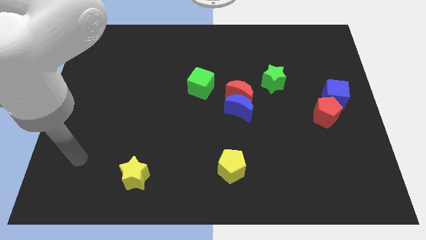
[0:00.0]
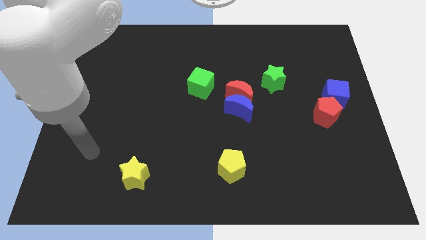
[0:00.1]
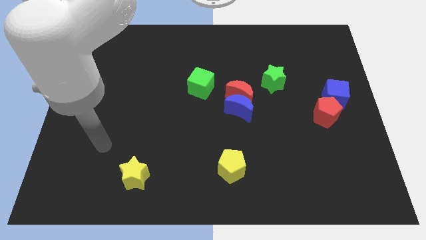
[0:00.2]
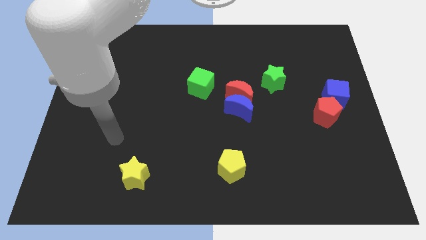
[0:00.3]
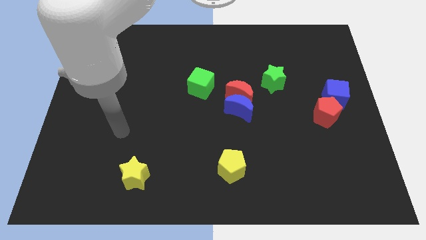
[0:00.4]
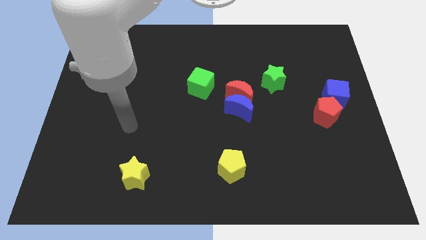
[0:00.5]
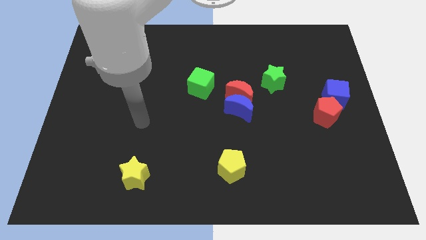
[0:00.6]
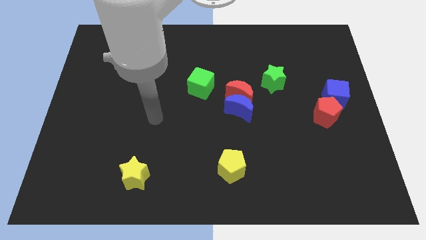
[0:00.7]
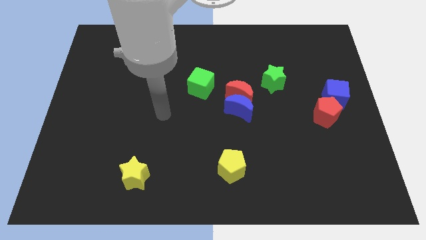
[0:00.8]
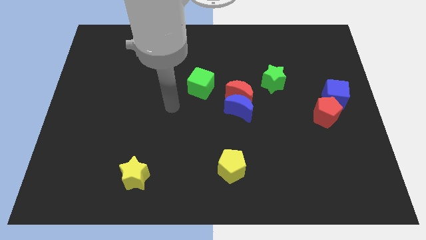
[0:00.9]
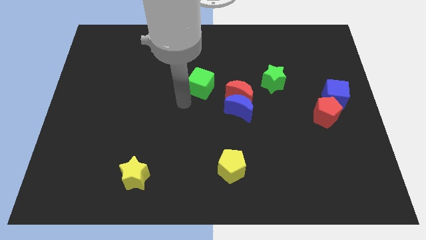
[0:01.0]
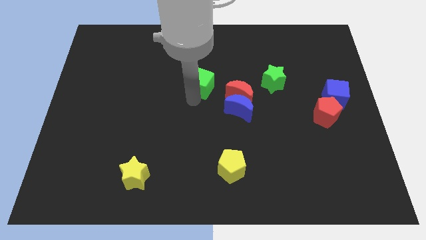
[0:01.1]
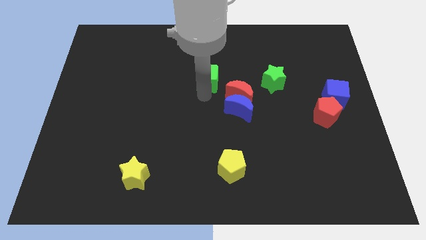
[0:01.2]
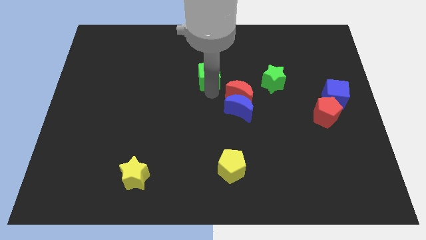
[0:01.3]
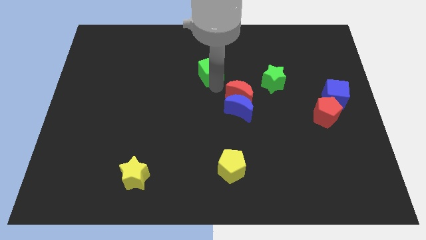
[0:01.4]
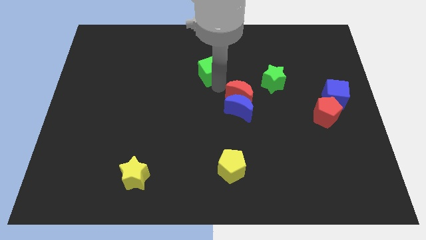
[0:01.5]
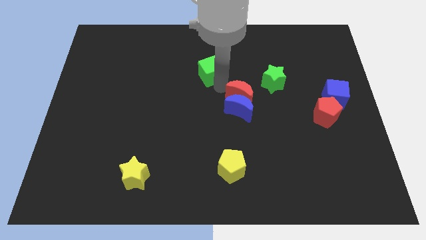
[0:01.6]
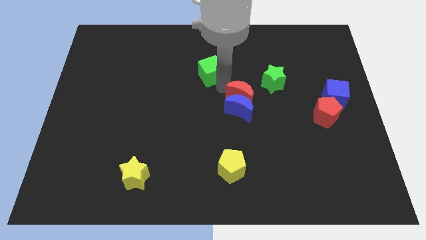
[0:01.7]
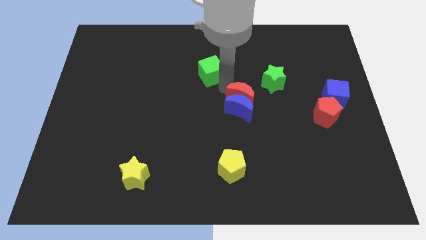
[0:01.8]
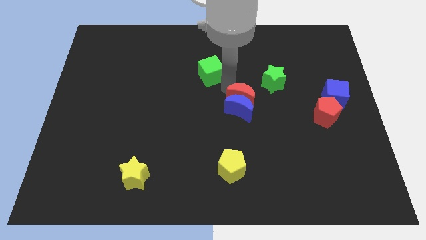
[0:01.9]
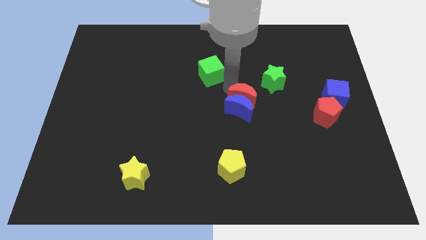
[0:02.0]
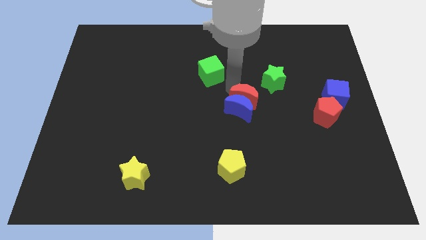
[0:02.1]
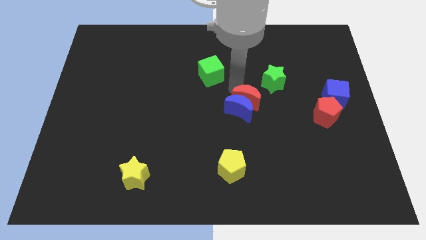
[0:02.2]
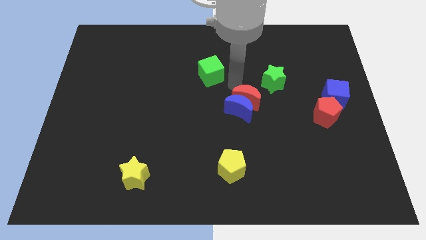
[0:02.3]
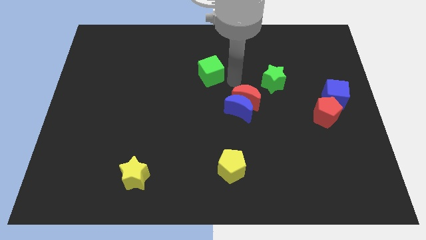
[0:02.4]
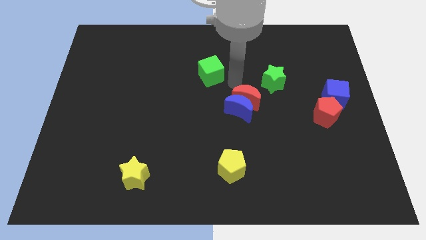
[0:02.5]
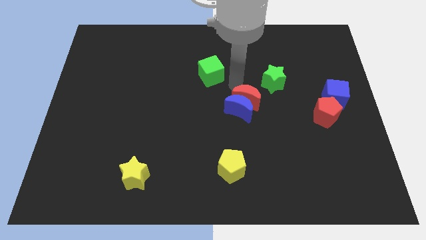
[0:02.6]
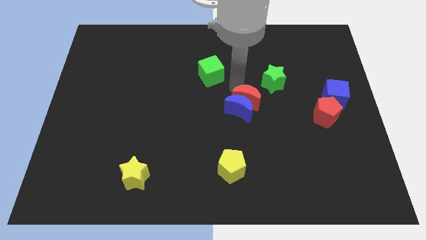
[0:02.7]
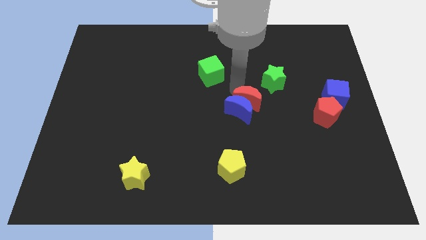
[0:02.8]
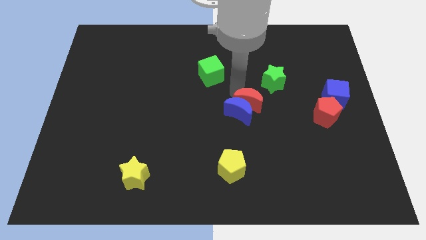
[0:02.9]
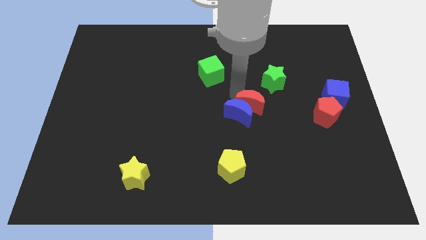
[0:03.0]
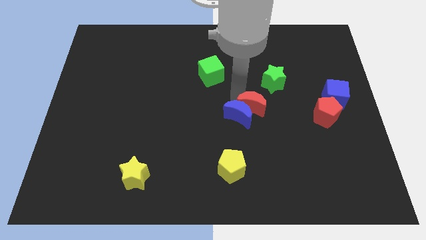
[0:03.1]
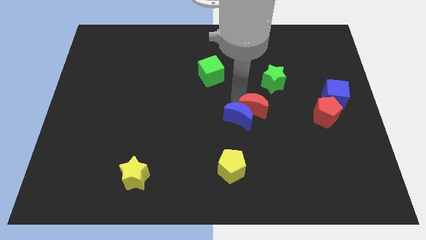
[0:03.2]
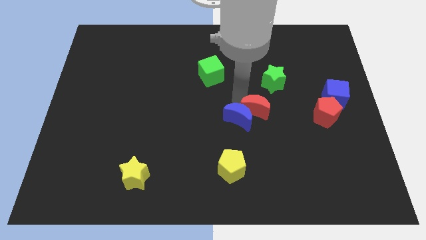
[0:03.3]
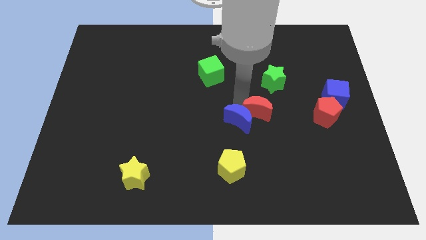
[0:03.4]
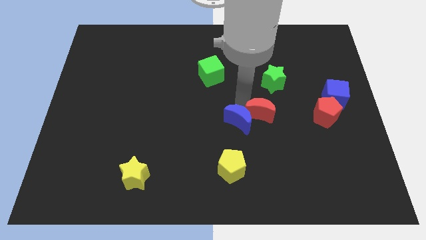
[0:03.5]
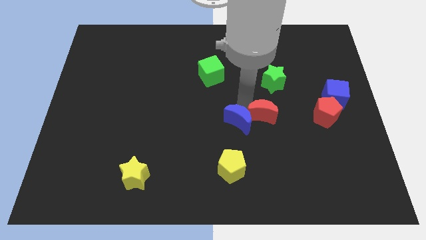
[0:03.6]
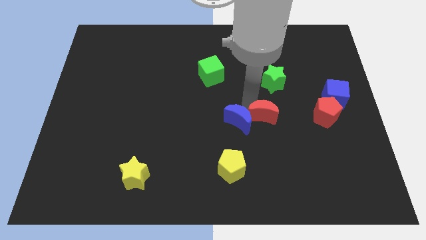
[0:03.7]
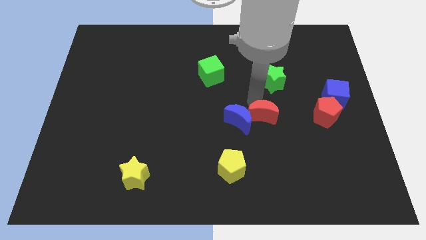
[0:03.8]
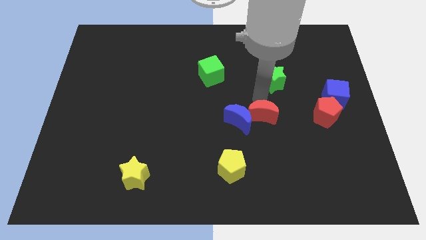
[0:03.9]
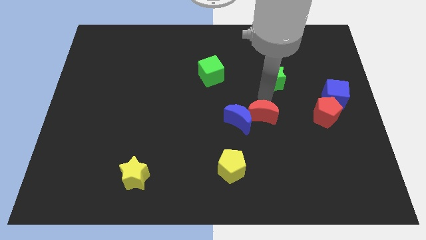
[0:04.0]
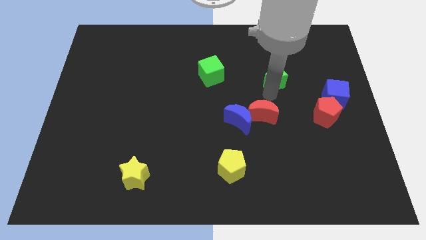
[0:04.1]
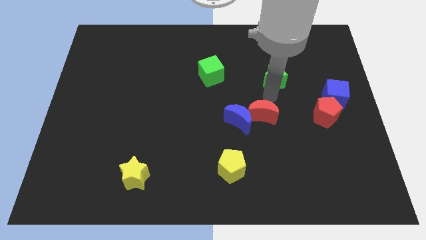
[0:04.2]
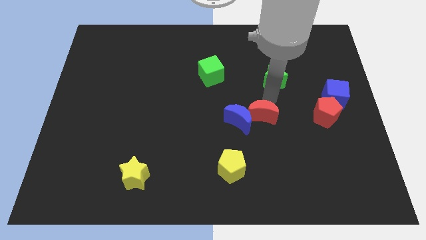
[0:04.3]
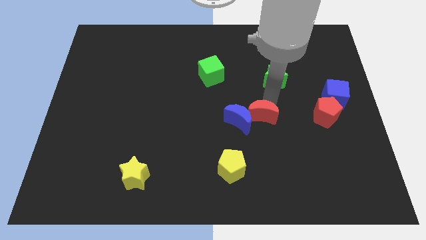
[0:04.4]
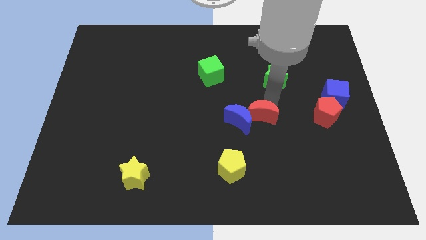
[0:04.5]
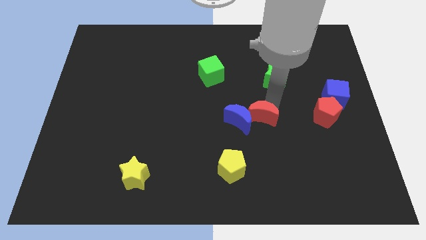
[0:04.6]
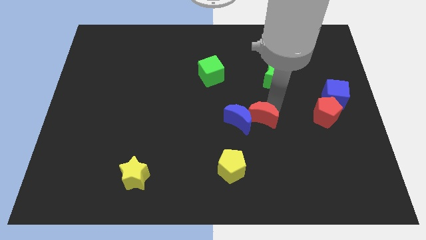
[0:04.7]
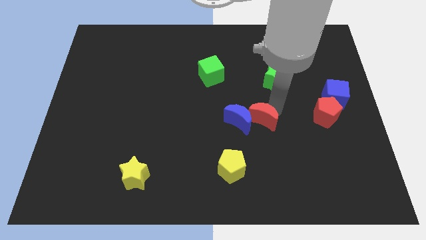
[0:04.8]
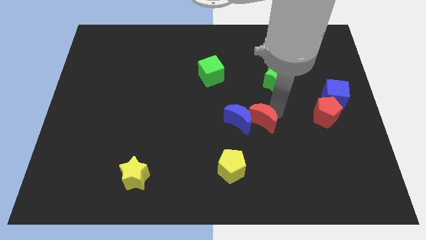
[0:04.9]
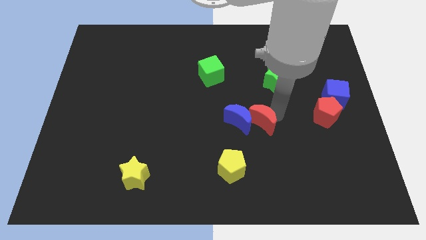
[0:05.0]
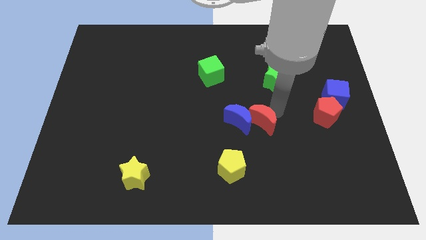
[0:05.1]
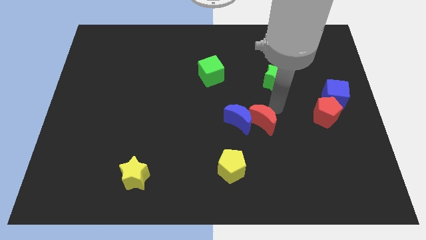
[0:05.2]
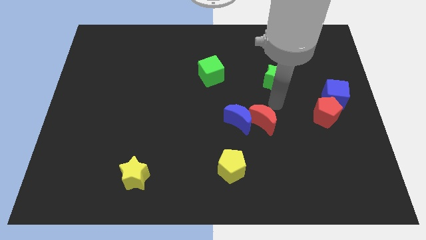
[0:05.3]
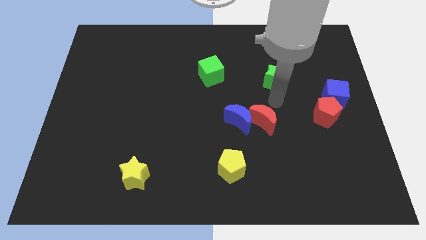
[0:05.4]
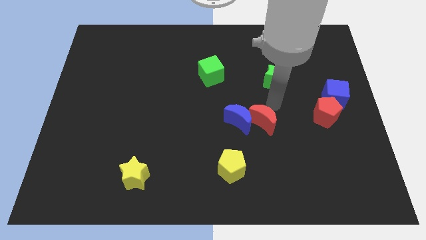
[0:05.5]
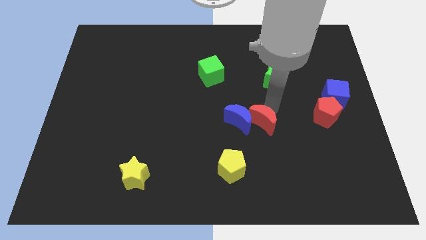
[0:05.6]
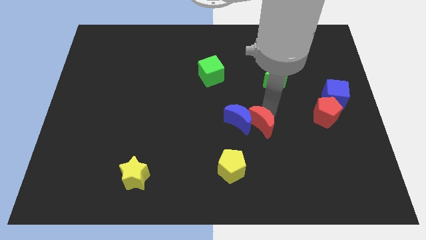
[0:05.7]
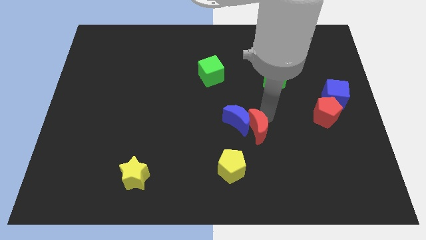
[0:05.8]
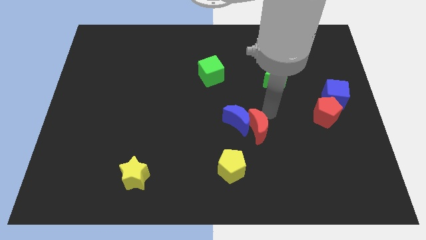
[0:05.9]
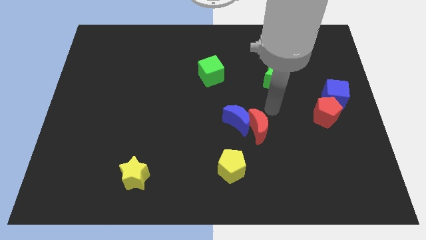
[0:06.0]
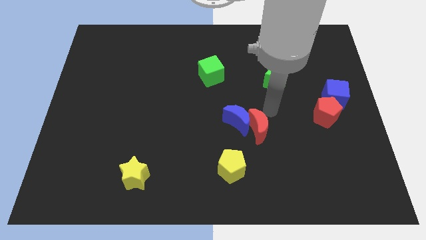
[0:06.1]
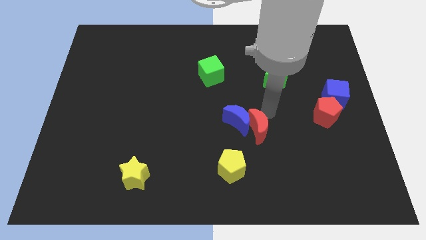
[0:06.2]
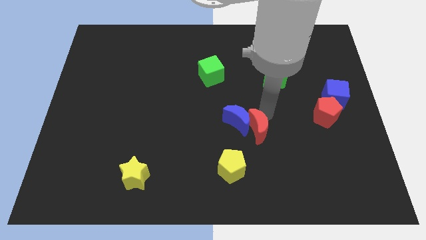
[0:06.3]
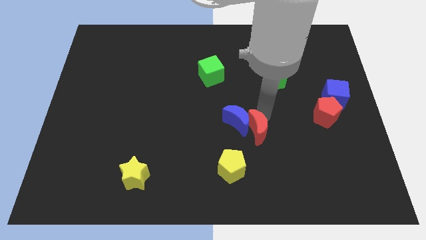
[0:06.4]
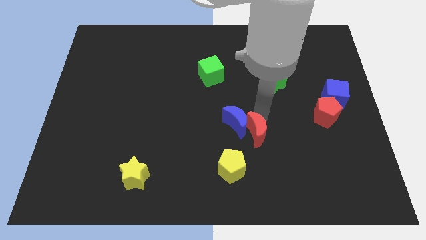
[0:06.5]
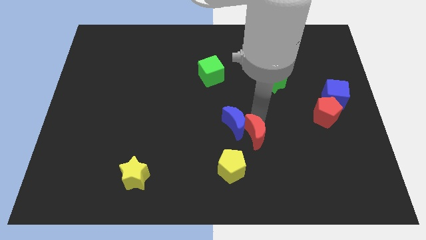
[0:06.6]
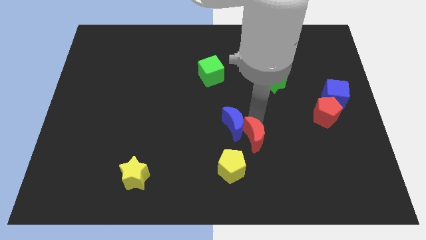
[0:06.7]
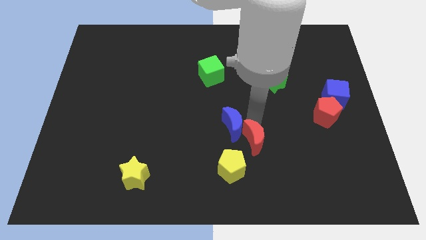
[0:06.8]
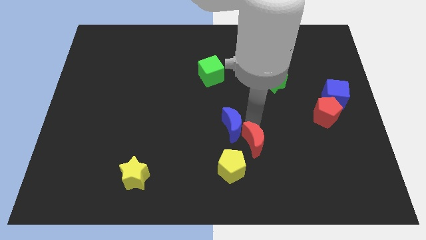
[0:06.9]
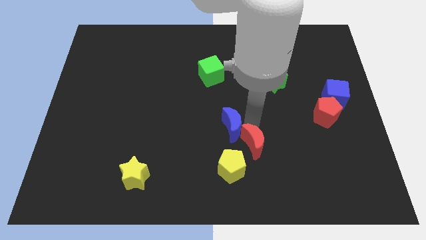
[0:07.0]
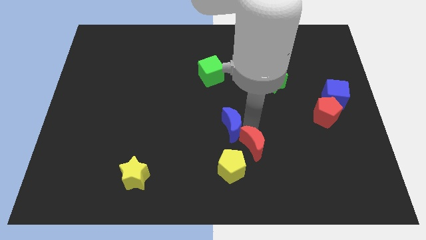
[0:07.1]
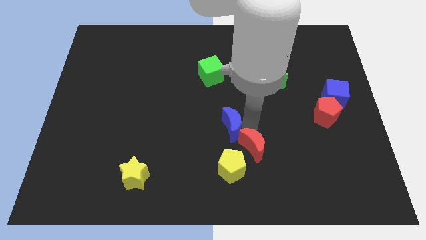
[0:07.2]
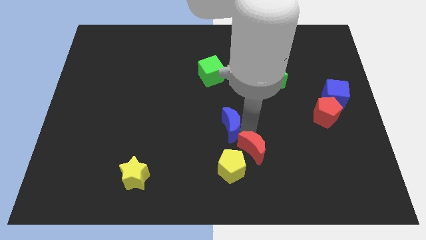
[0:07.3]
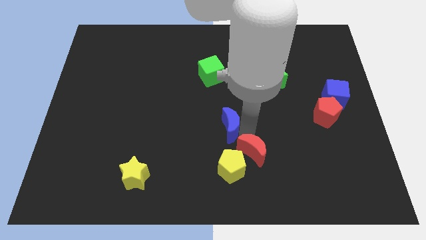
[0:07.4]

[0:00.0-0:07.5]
move the red moon next to the yellow pentagon
